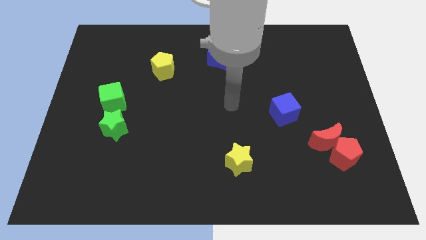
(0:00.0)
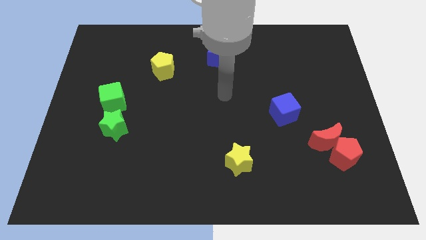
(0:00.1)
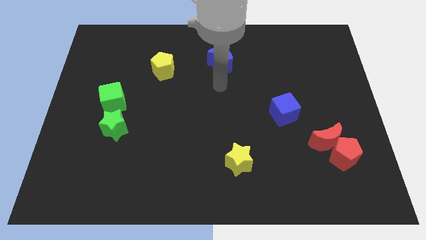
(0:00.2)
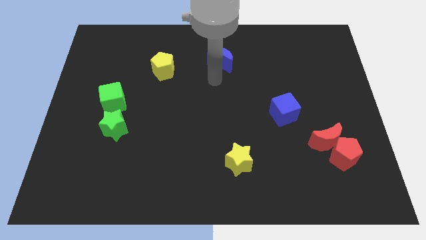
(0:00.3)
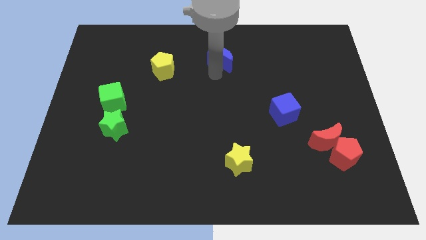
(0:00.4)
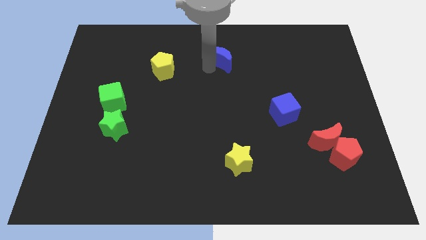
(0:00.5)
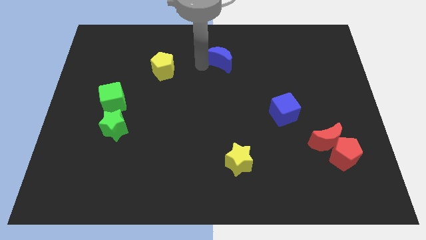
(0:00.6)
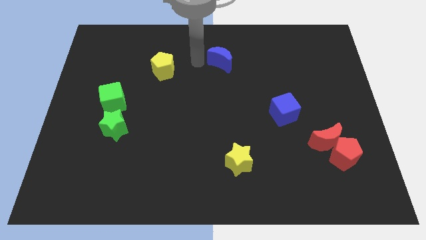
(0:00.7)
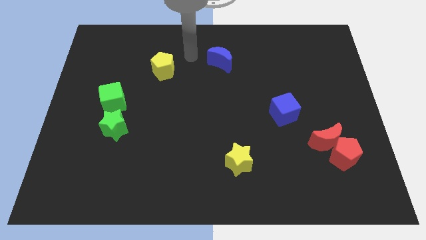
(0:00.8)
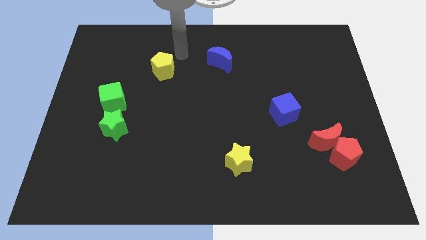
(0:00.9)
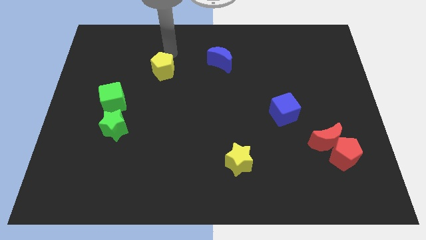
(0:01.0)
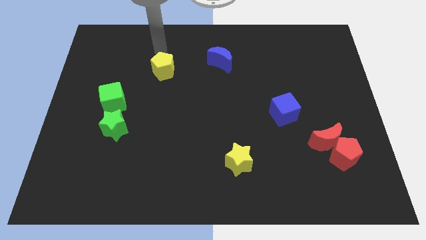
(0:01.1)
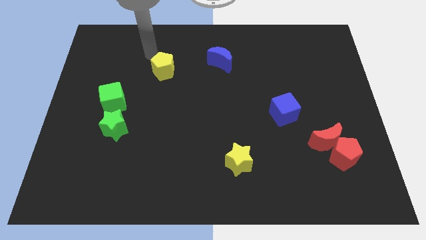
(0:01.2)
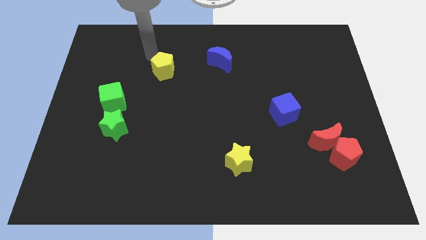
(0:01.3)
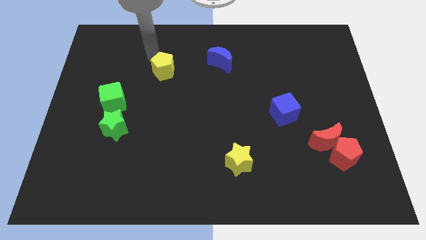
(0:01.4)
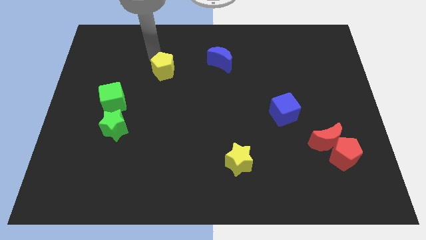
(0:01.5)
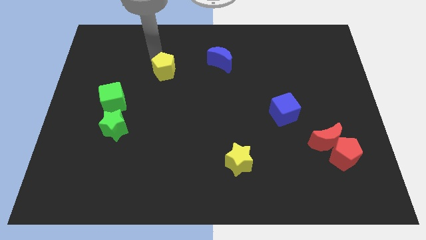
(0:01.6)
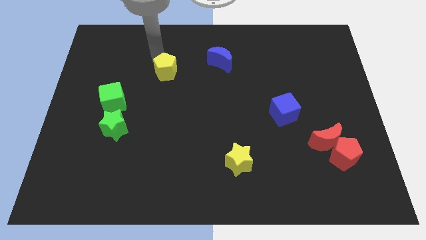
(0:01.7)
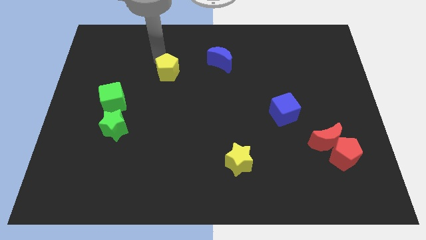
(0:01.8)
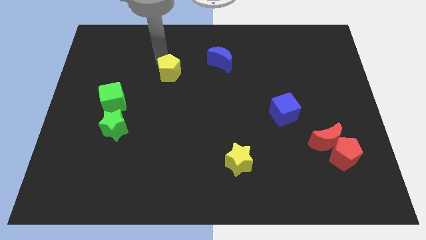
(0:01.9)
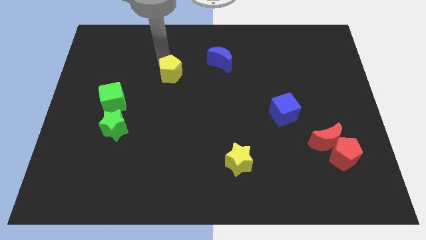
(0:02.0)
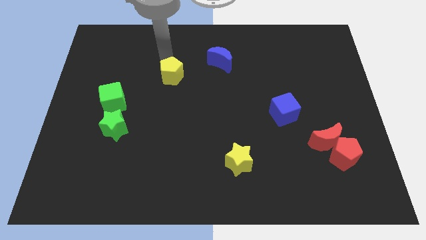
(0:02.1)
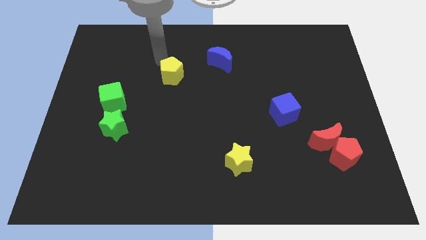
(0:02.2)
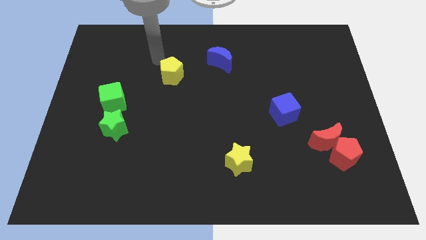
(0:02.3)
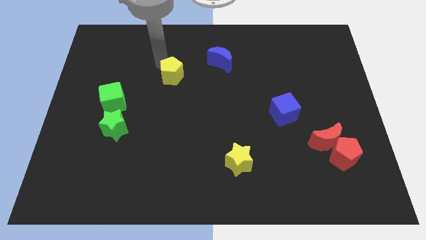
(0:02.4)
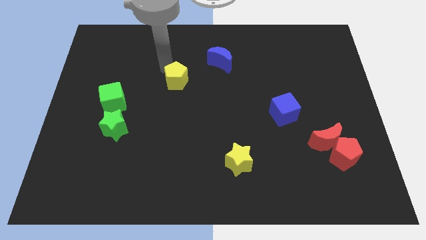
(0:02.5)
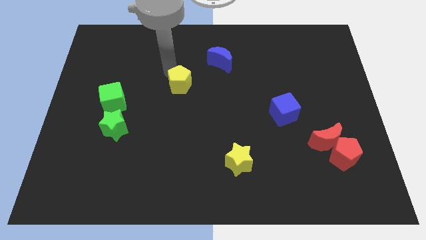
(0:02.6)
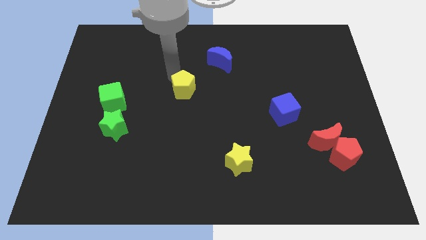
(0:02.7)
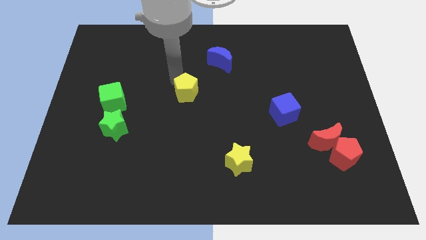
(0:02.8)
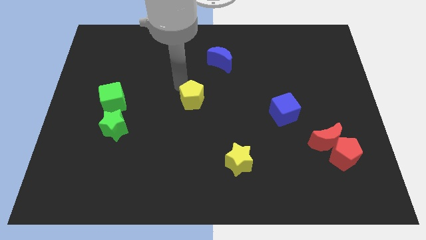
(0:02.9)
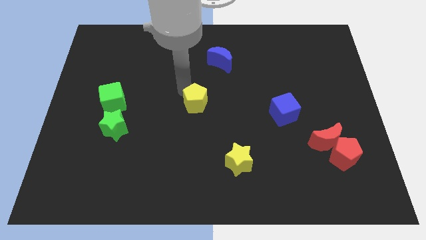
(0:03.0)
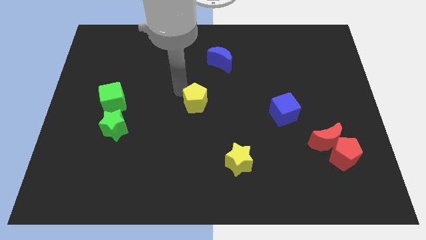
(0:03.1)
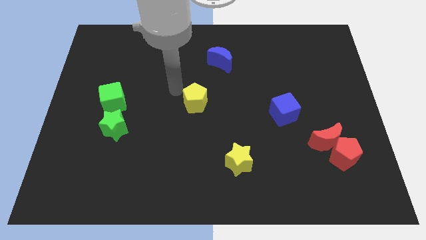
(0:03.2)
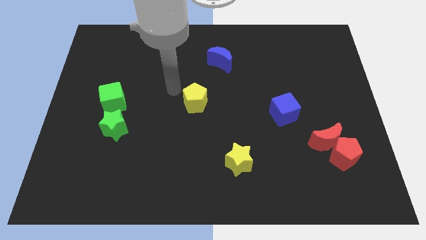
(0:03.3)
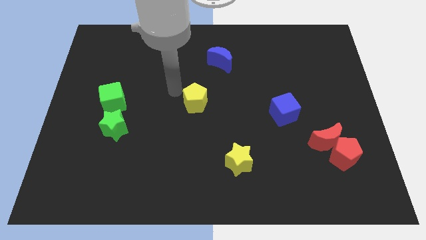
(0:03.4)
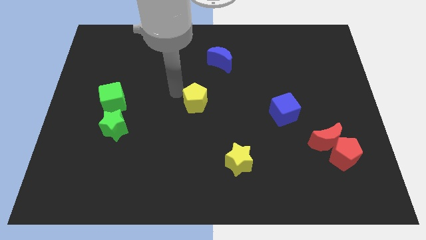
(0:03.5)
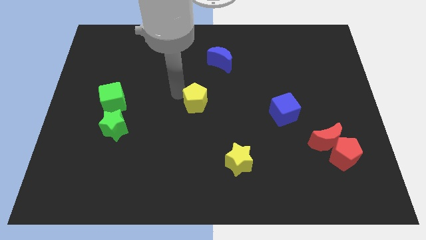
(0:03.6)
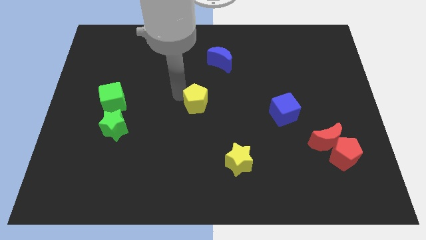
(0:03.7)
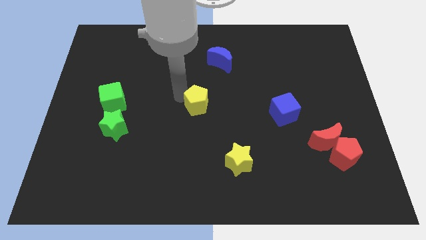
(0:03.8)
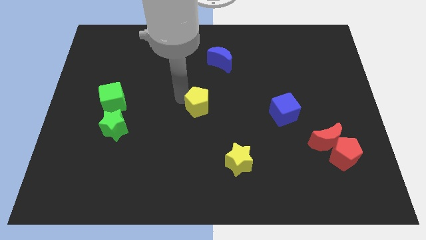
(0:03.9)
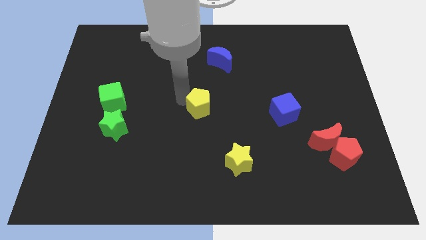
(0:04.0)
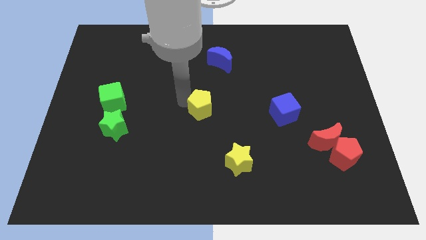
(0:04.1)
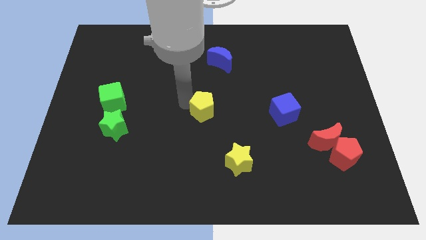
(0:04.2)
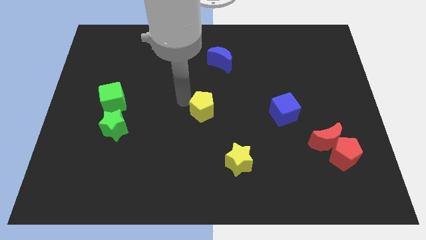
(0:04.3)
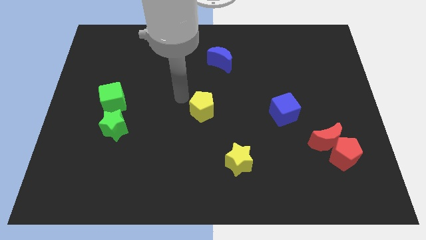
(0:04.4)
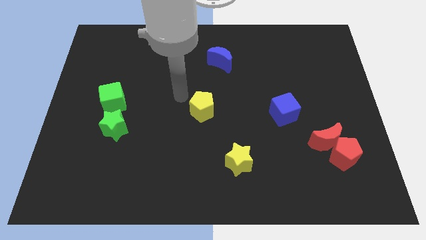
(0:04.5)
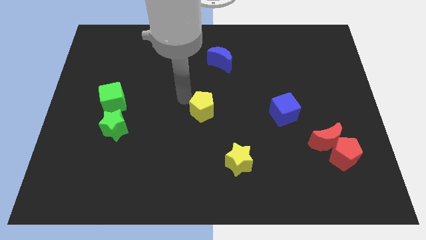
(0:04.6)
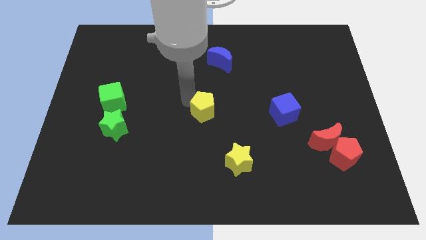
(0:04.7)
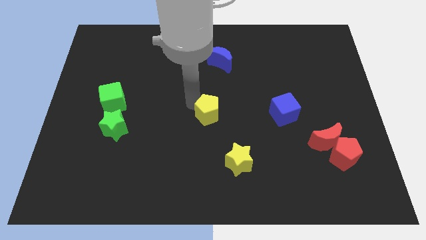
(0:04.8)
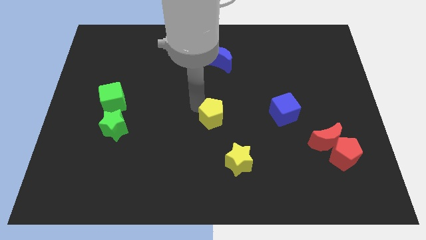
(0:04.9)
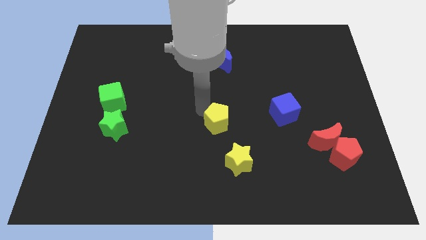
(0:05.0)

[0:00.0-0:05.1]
push the yellow pentagon downwards and then to the right

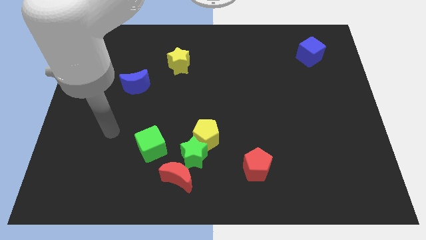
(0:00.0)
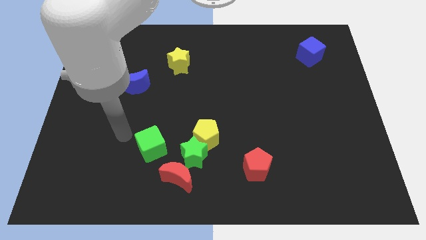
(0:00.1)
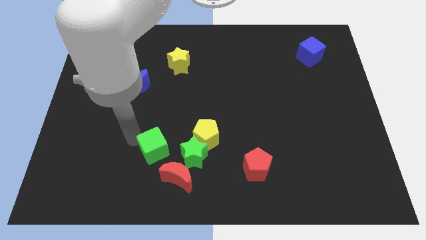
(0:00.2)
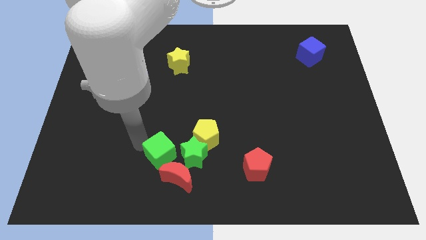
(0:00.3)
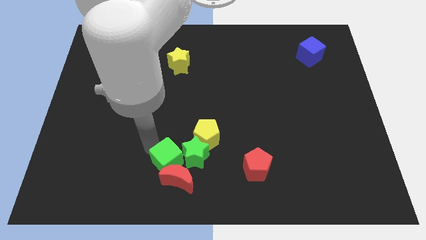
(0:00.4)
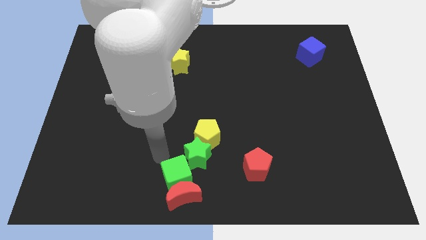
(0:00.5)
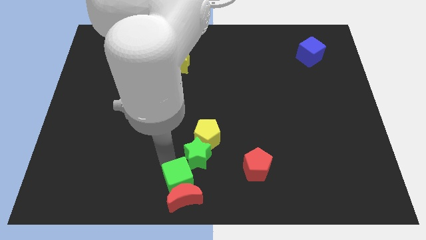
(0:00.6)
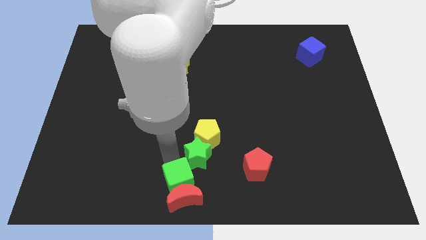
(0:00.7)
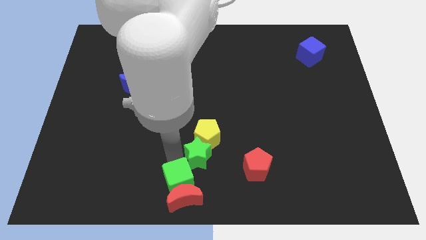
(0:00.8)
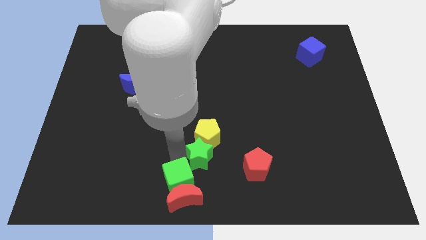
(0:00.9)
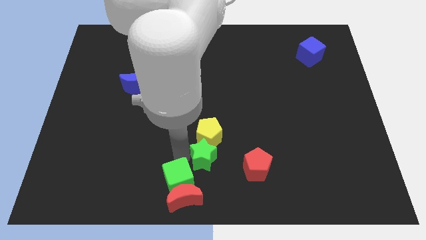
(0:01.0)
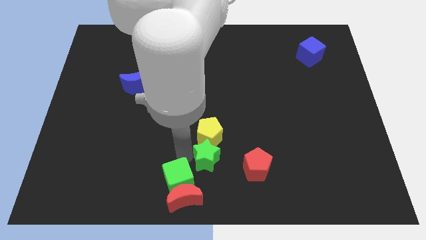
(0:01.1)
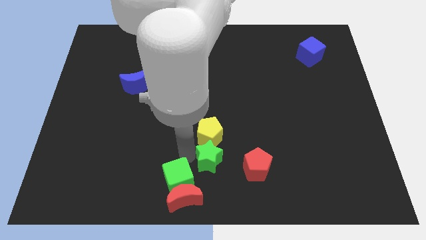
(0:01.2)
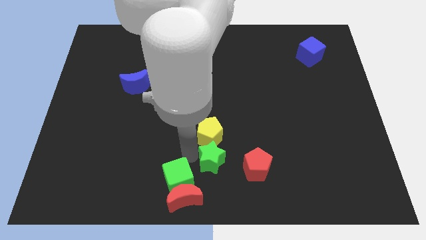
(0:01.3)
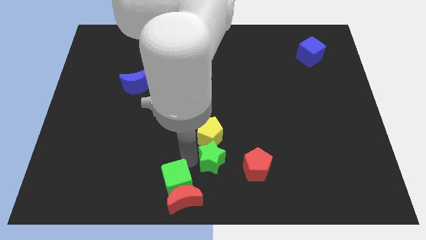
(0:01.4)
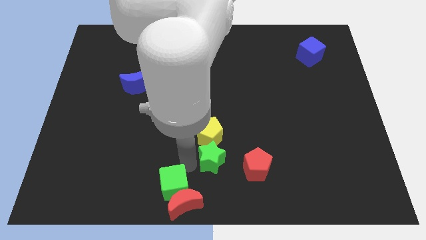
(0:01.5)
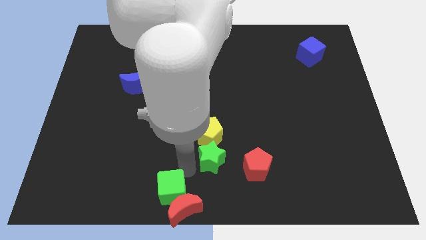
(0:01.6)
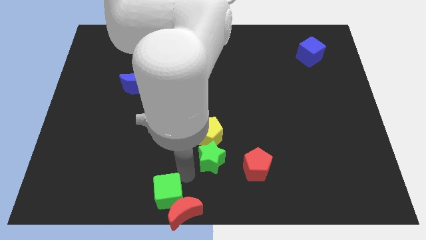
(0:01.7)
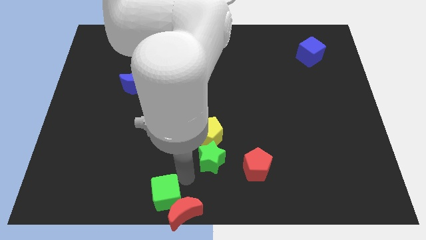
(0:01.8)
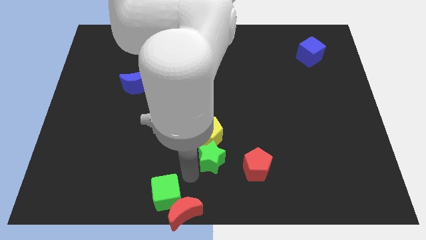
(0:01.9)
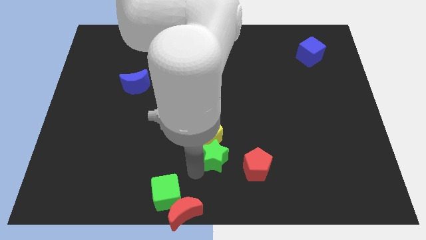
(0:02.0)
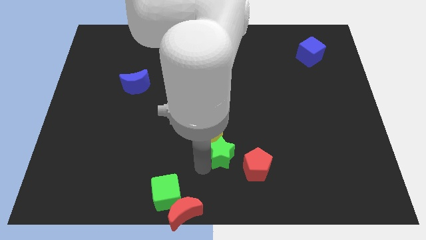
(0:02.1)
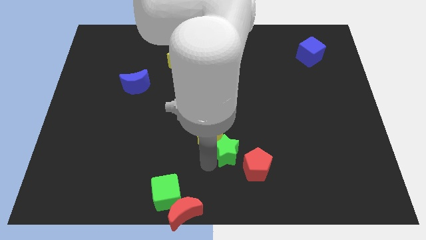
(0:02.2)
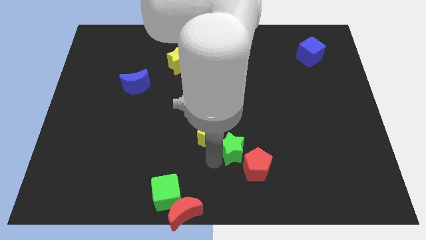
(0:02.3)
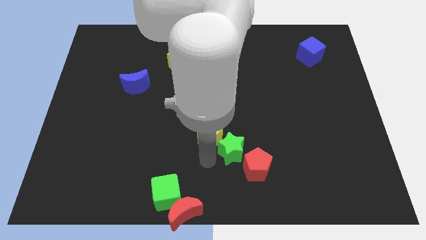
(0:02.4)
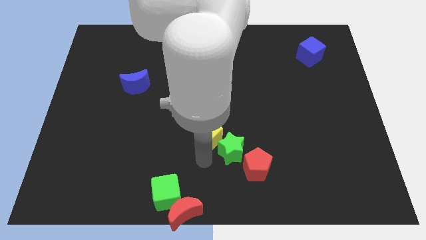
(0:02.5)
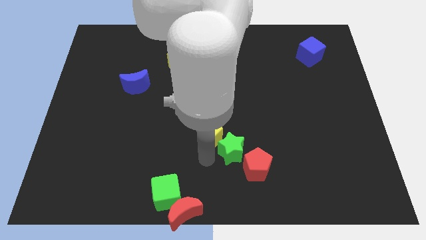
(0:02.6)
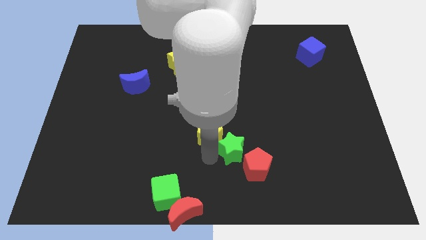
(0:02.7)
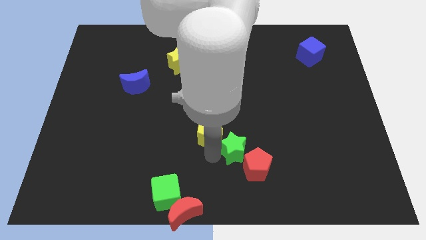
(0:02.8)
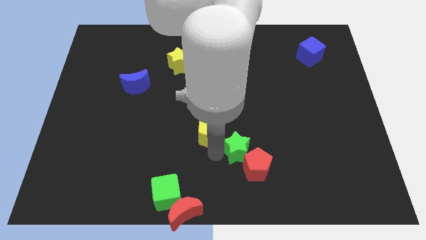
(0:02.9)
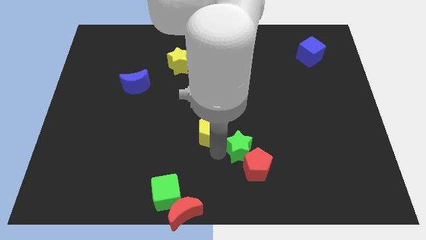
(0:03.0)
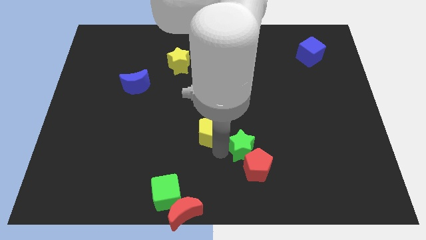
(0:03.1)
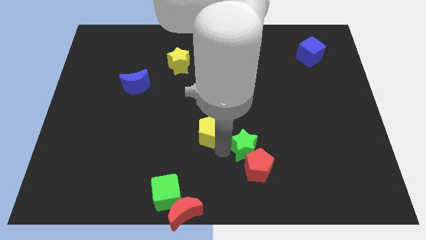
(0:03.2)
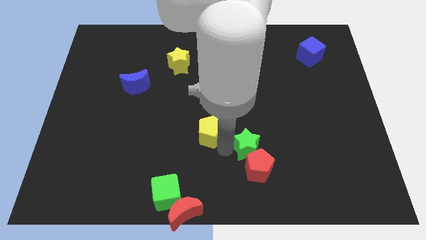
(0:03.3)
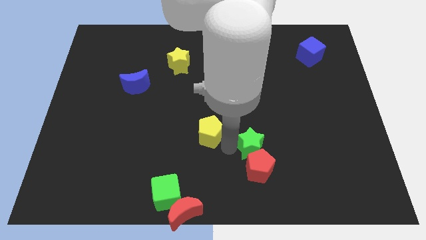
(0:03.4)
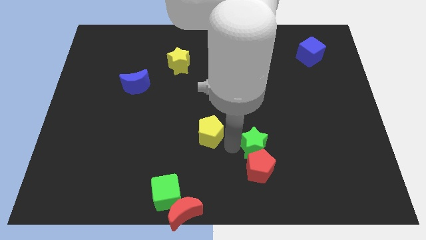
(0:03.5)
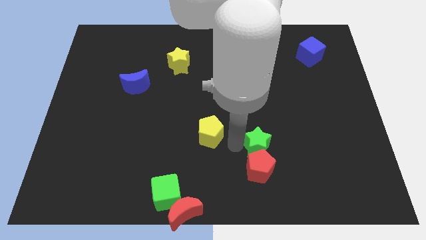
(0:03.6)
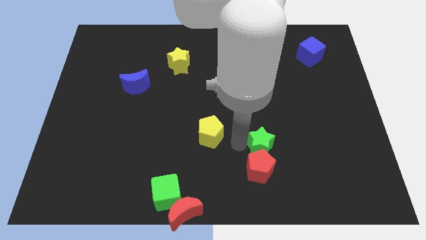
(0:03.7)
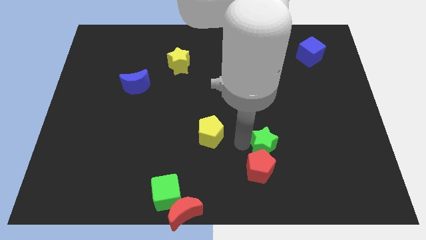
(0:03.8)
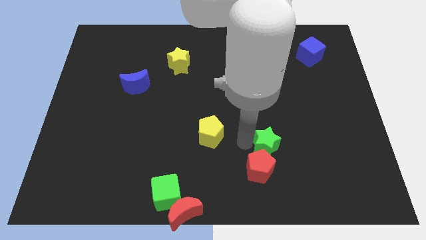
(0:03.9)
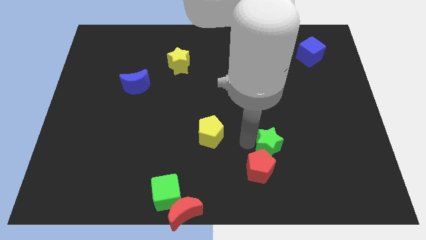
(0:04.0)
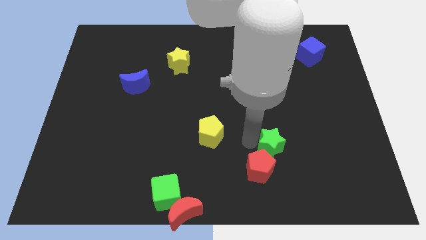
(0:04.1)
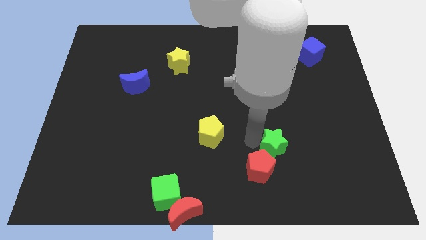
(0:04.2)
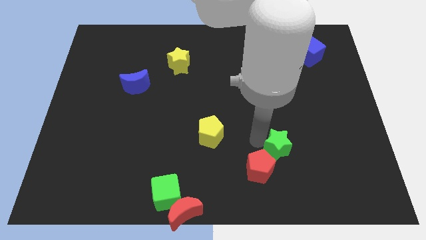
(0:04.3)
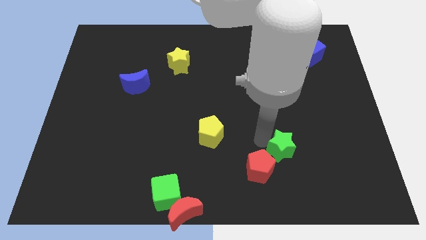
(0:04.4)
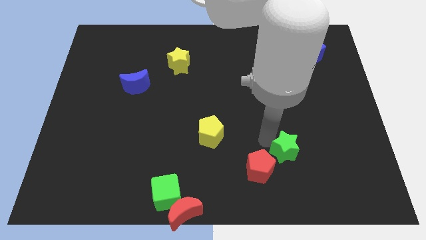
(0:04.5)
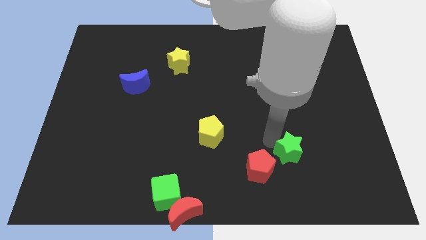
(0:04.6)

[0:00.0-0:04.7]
slide the green star right
